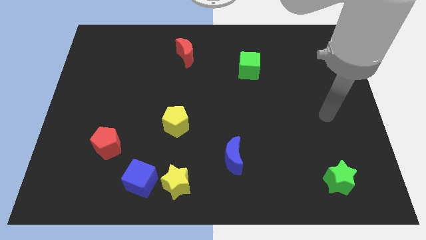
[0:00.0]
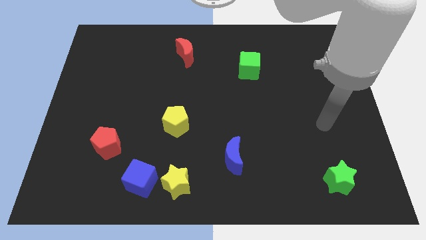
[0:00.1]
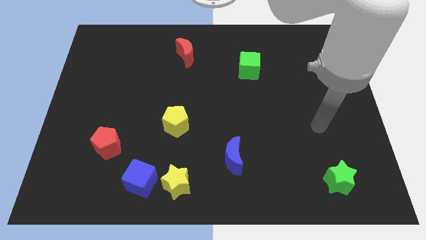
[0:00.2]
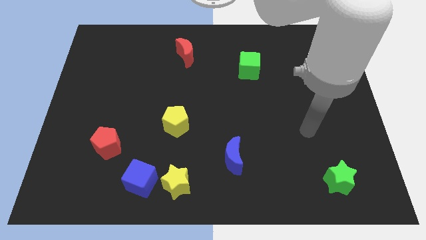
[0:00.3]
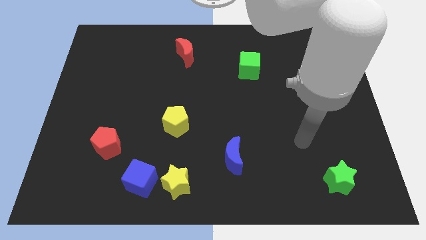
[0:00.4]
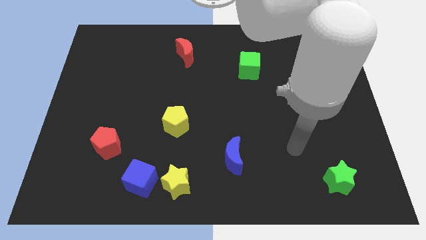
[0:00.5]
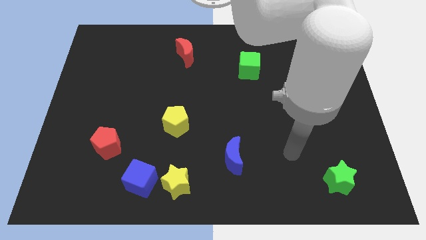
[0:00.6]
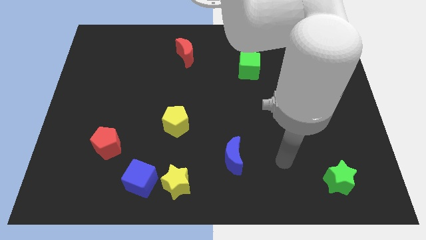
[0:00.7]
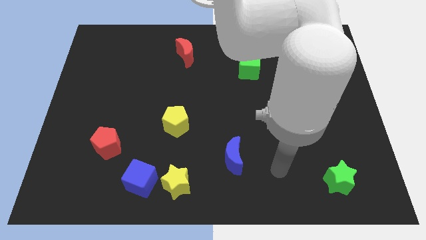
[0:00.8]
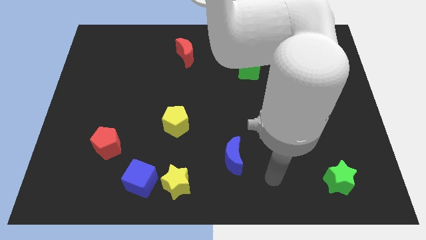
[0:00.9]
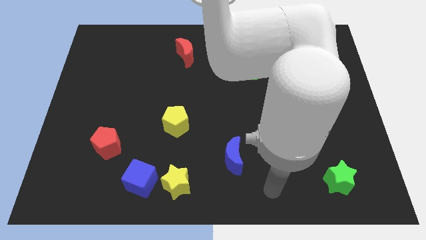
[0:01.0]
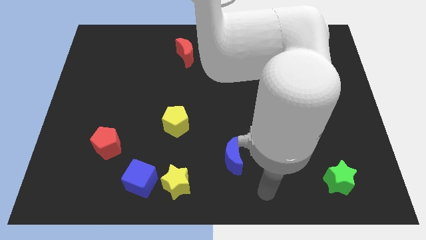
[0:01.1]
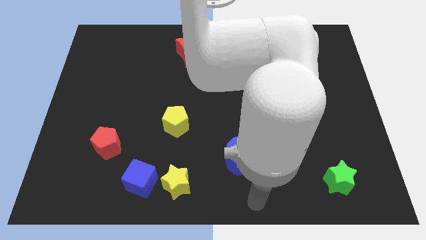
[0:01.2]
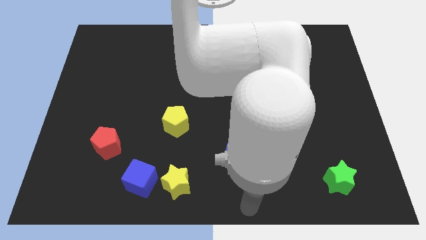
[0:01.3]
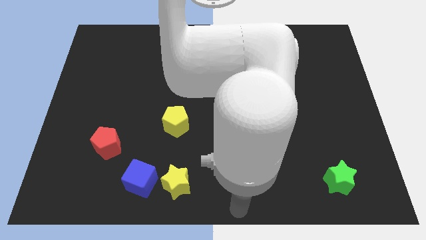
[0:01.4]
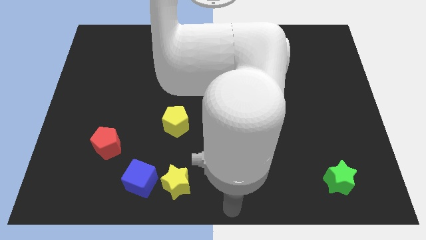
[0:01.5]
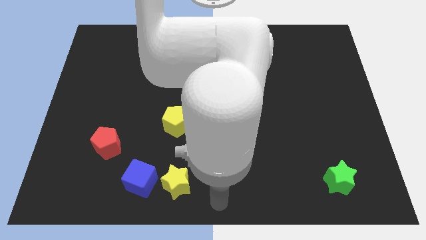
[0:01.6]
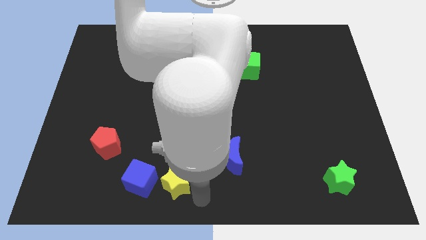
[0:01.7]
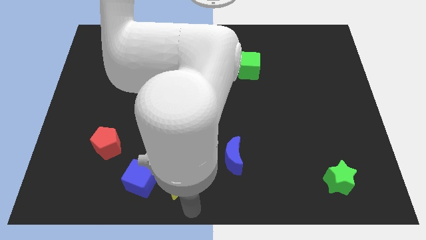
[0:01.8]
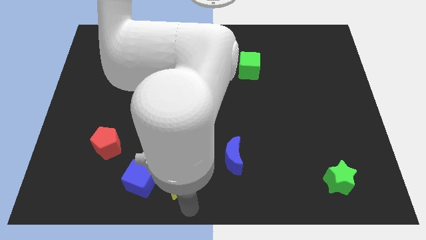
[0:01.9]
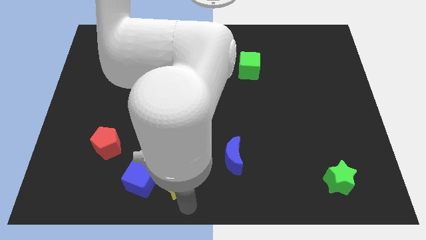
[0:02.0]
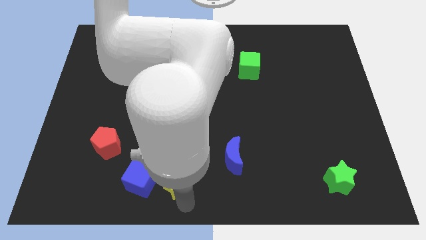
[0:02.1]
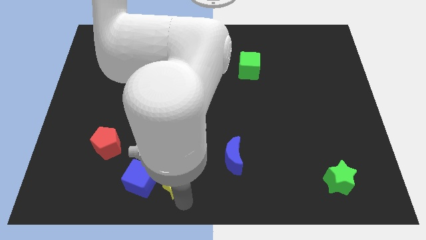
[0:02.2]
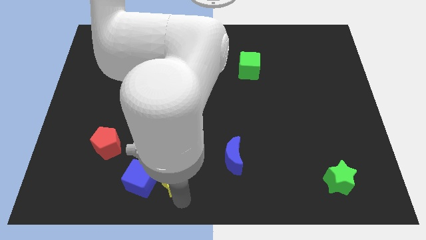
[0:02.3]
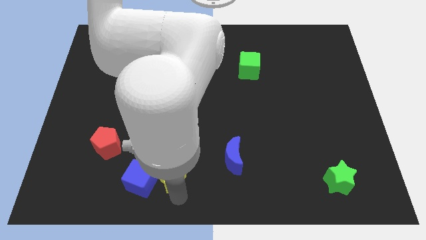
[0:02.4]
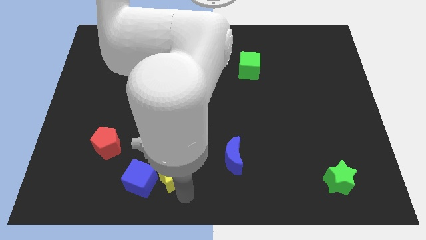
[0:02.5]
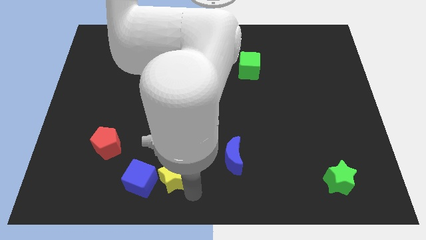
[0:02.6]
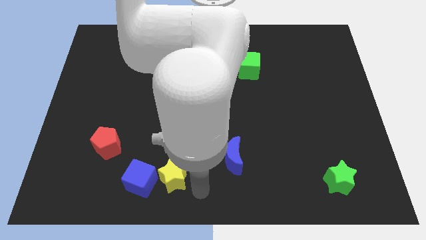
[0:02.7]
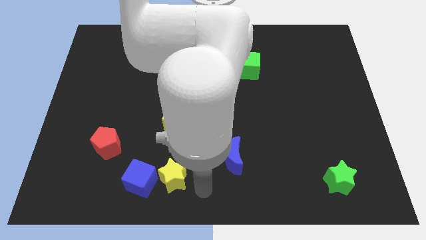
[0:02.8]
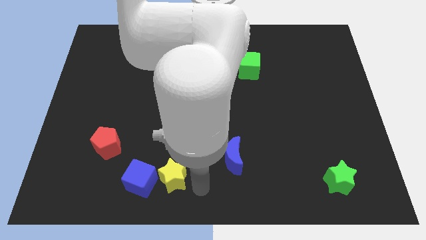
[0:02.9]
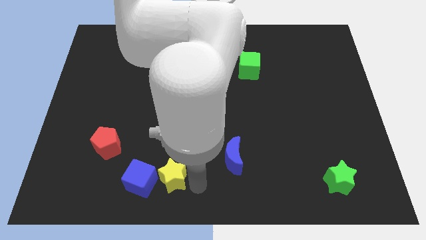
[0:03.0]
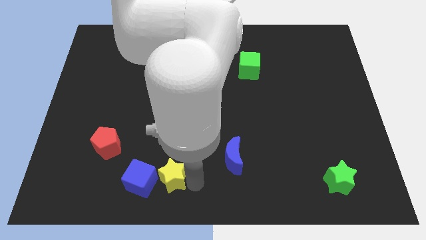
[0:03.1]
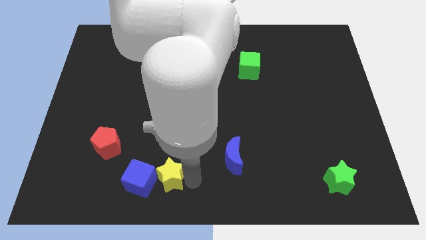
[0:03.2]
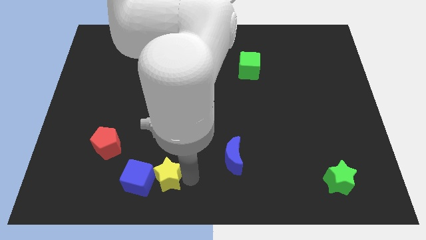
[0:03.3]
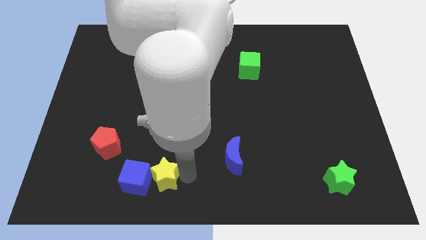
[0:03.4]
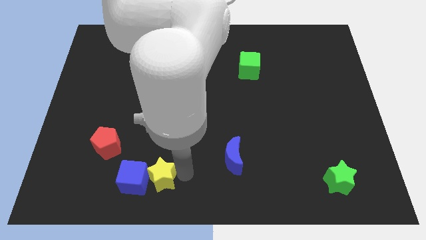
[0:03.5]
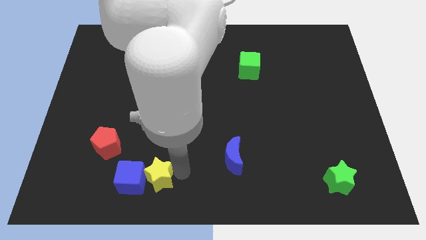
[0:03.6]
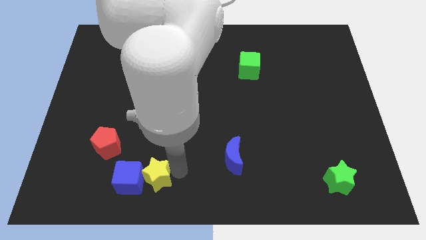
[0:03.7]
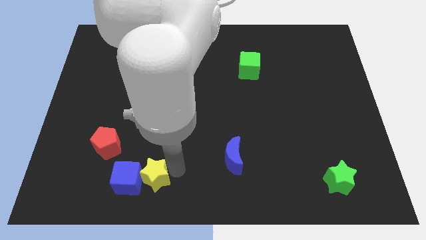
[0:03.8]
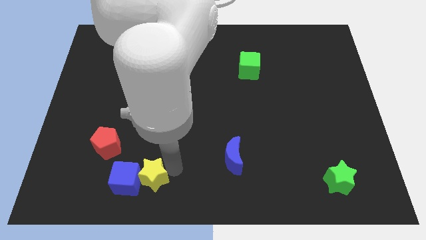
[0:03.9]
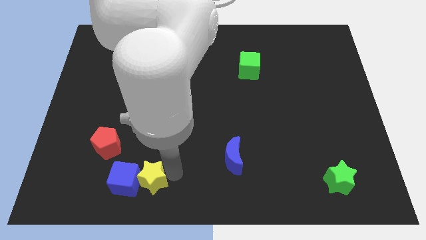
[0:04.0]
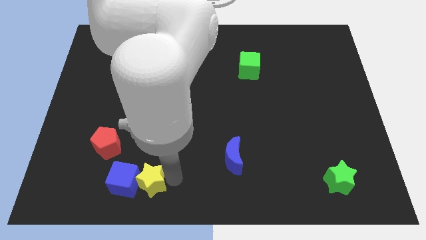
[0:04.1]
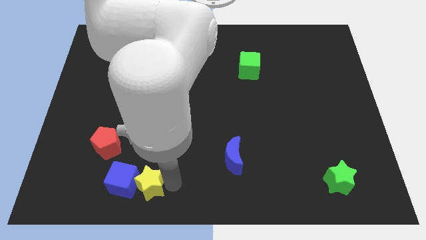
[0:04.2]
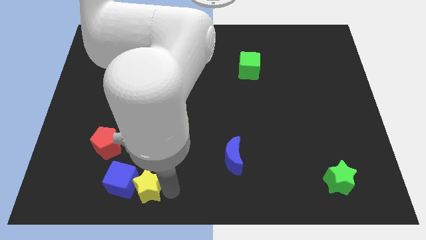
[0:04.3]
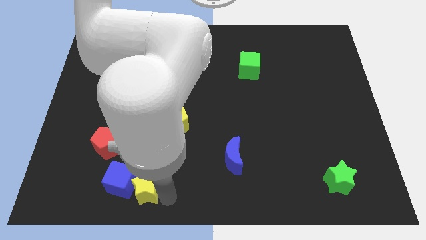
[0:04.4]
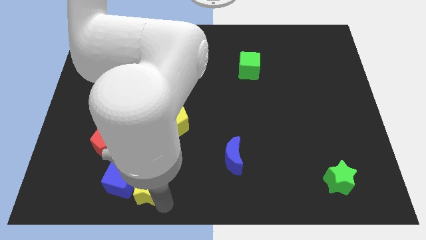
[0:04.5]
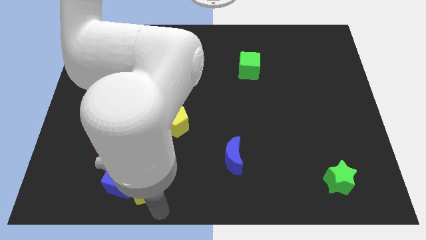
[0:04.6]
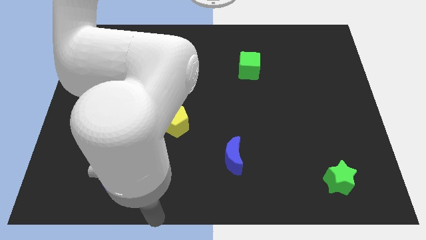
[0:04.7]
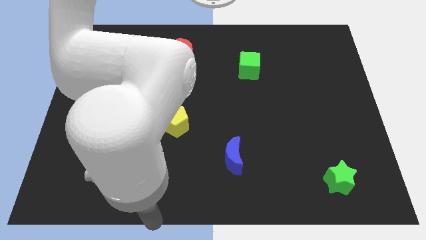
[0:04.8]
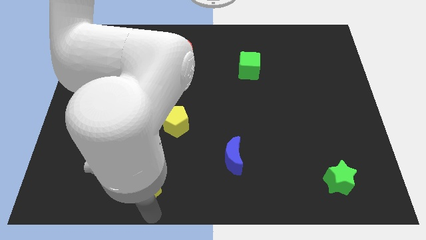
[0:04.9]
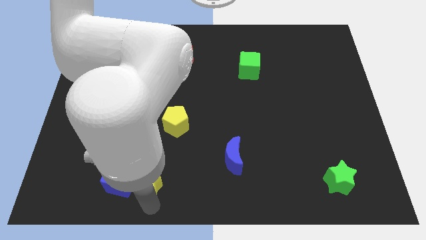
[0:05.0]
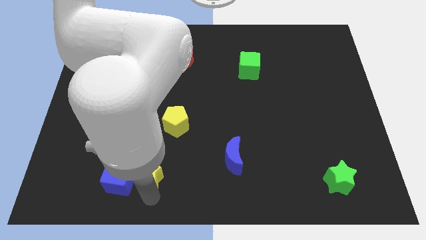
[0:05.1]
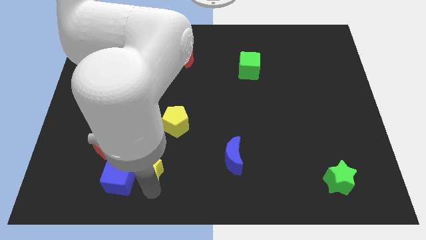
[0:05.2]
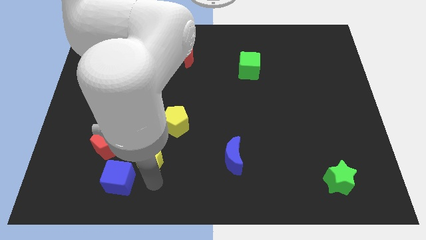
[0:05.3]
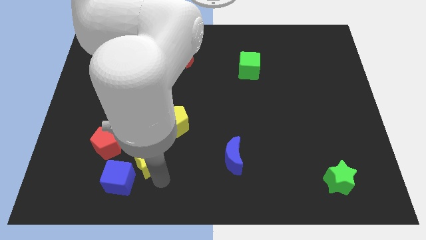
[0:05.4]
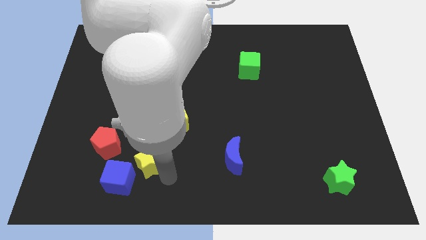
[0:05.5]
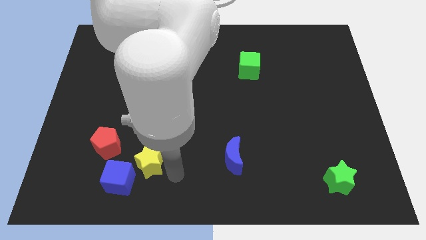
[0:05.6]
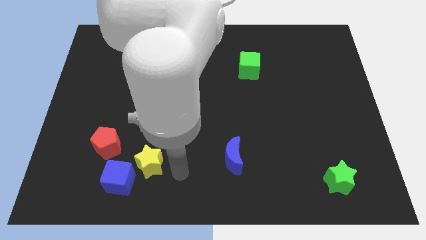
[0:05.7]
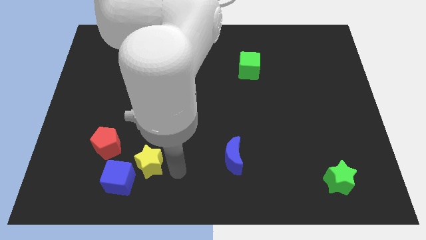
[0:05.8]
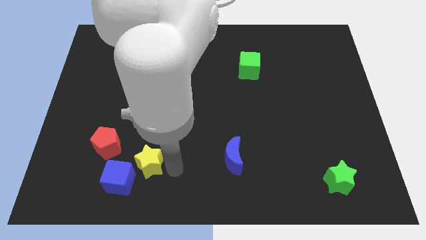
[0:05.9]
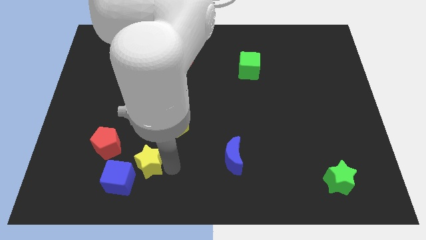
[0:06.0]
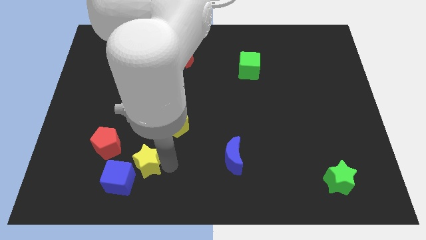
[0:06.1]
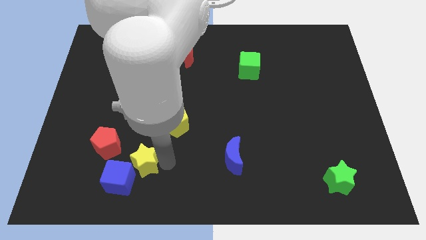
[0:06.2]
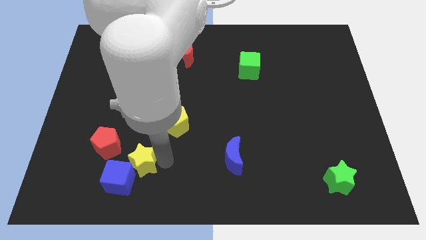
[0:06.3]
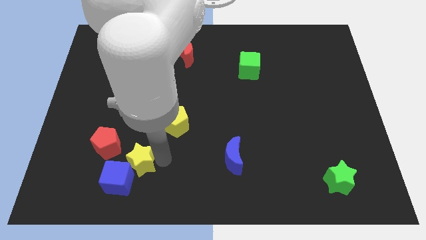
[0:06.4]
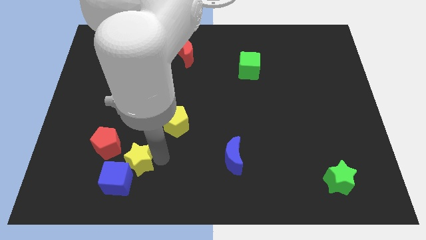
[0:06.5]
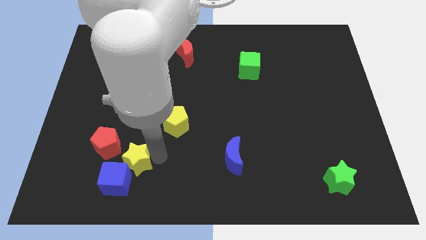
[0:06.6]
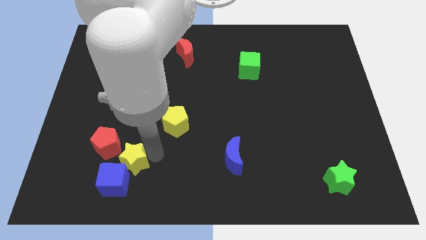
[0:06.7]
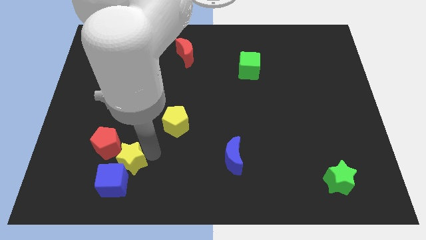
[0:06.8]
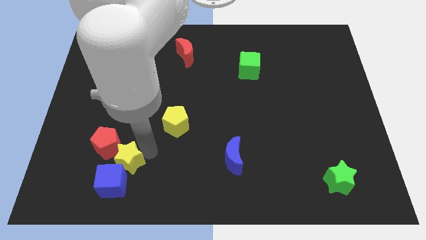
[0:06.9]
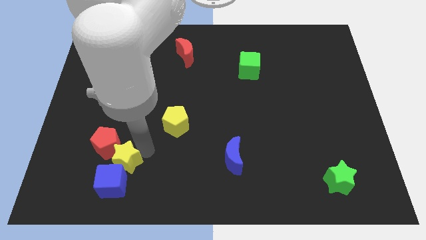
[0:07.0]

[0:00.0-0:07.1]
slide the yellow star next to the red pentagon
